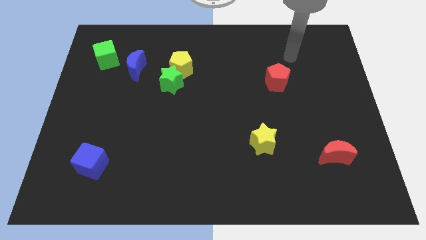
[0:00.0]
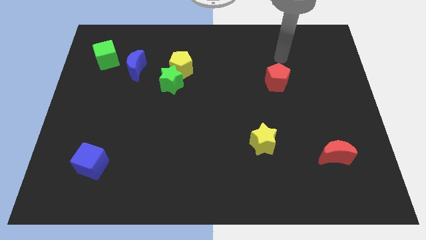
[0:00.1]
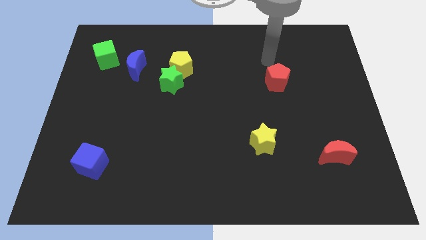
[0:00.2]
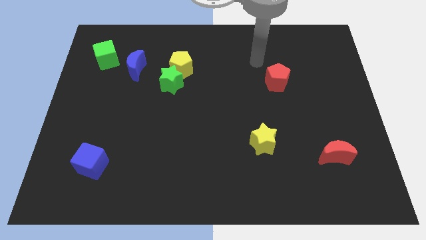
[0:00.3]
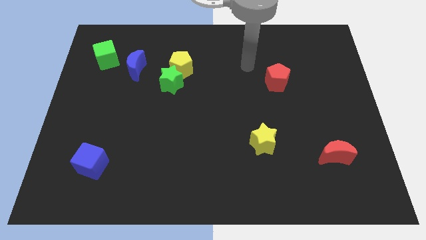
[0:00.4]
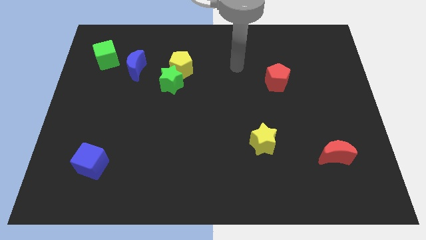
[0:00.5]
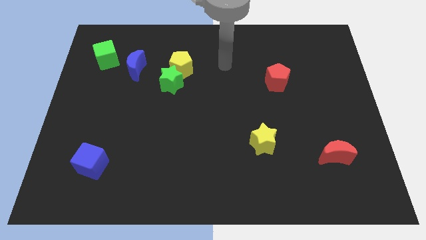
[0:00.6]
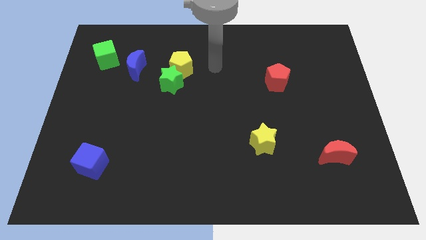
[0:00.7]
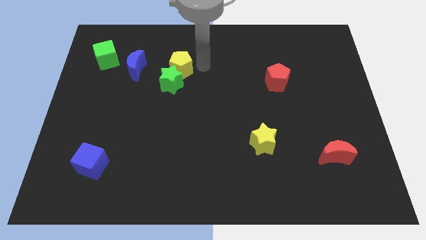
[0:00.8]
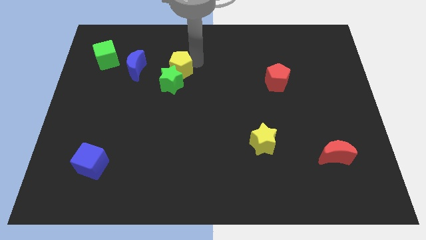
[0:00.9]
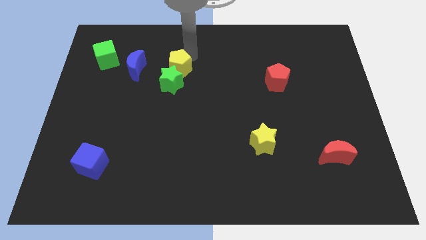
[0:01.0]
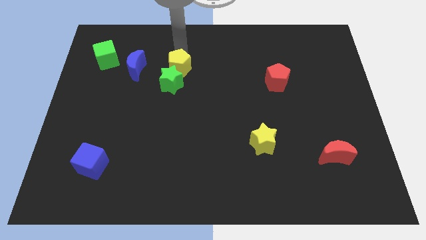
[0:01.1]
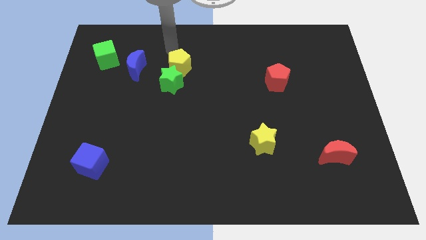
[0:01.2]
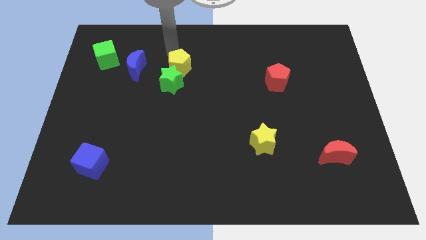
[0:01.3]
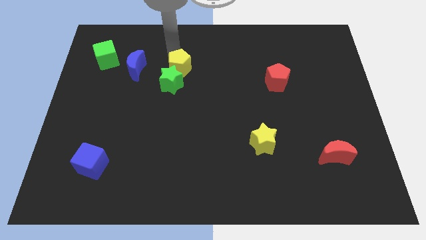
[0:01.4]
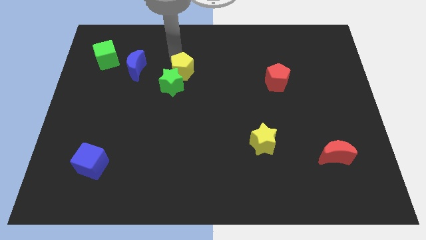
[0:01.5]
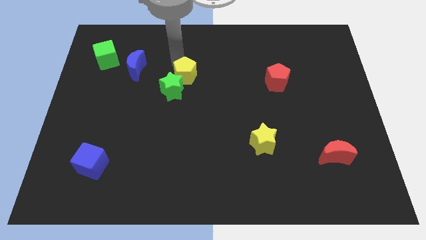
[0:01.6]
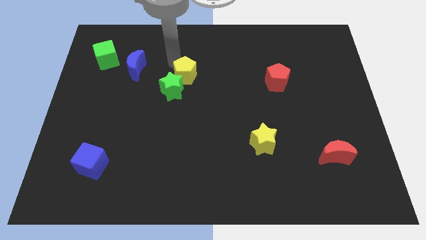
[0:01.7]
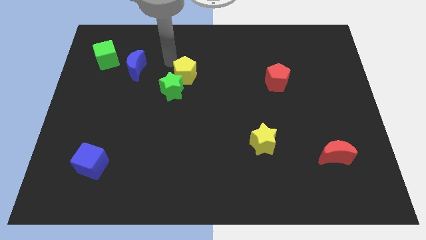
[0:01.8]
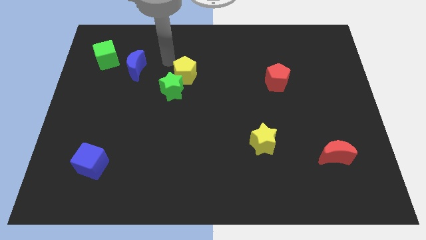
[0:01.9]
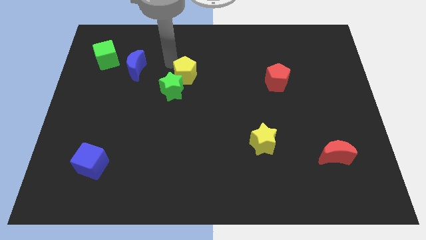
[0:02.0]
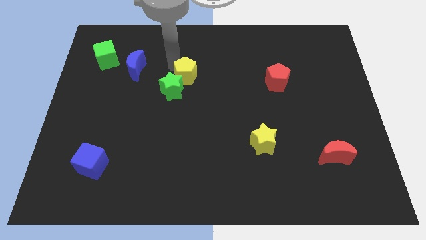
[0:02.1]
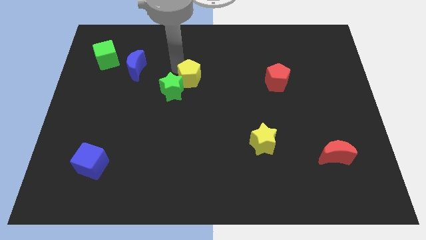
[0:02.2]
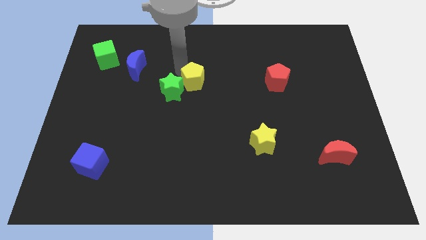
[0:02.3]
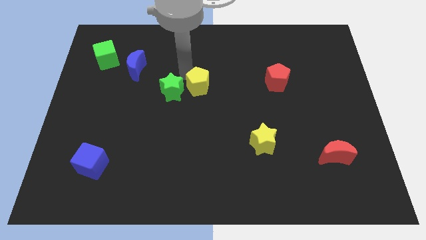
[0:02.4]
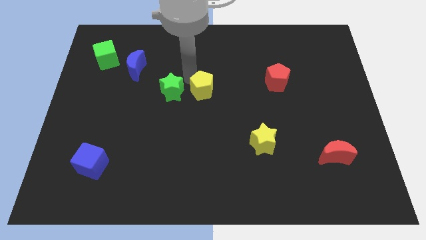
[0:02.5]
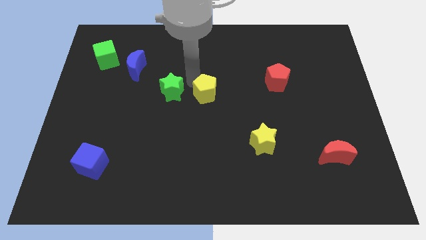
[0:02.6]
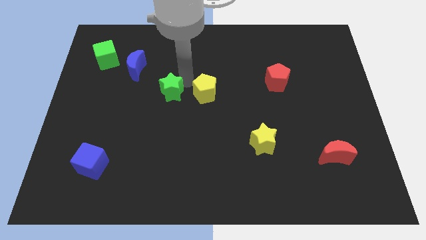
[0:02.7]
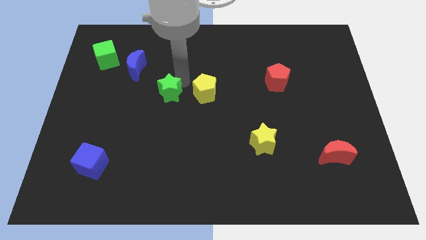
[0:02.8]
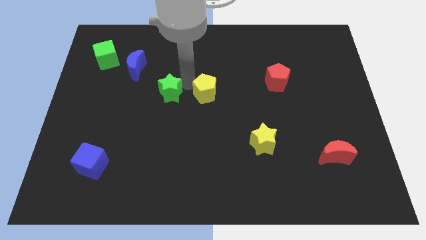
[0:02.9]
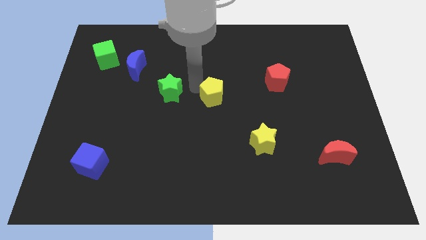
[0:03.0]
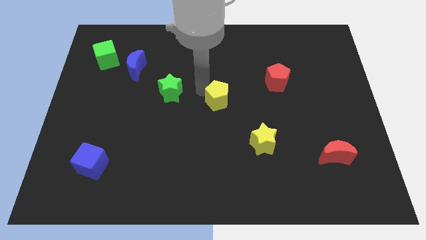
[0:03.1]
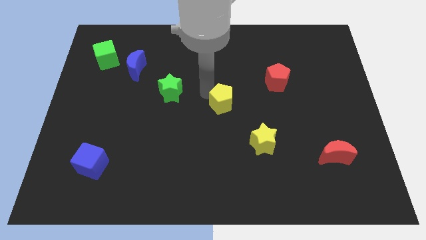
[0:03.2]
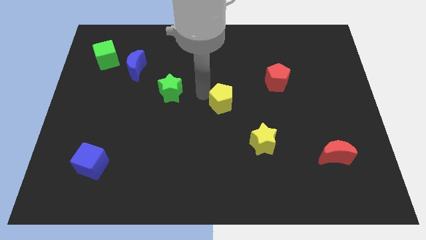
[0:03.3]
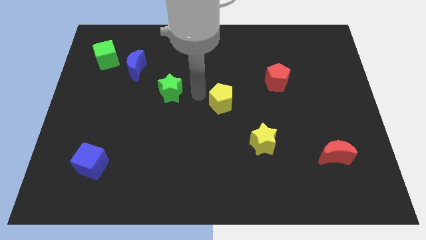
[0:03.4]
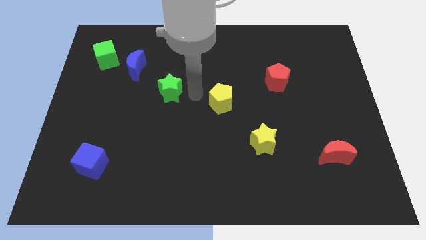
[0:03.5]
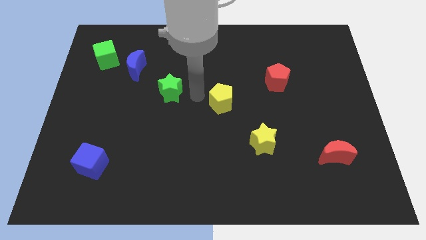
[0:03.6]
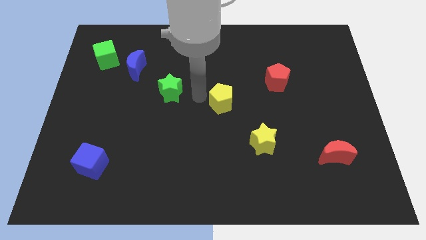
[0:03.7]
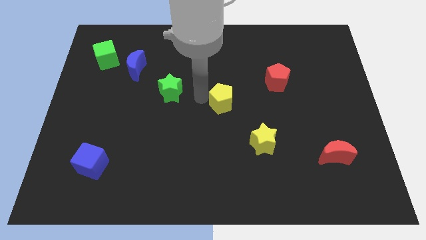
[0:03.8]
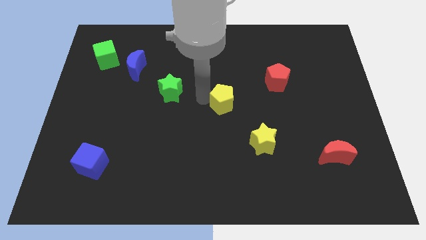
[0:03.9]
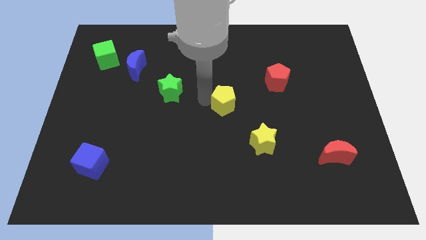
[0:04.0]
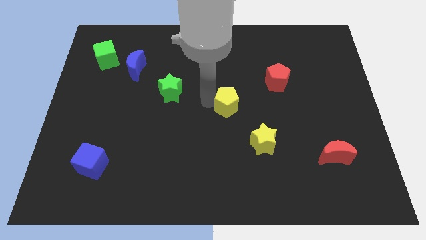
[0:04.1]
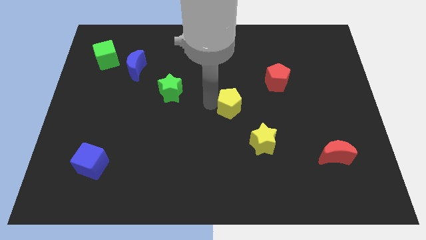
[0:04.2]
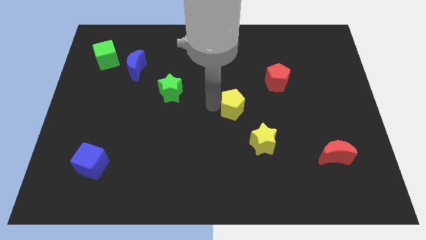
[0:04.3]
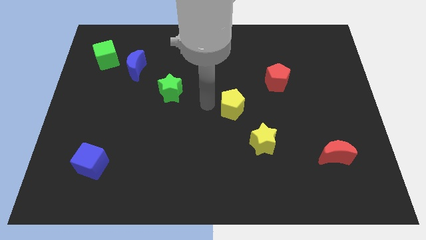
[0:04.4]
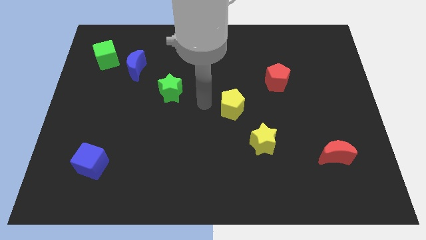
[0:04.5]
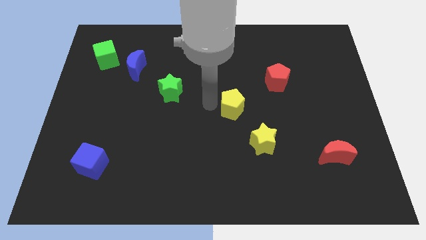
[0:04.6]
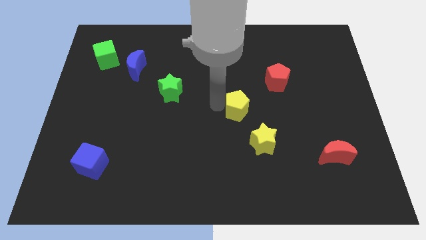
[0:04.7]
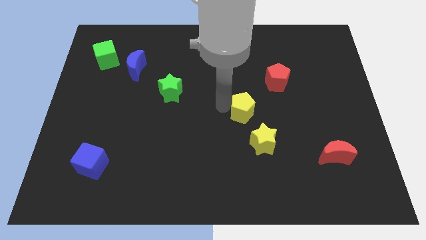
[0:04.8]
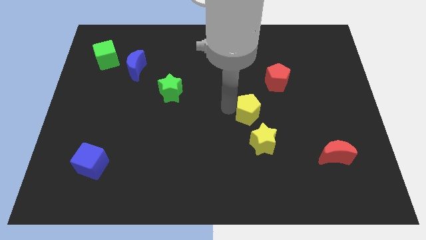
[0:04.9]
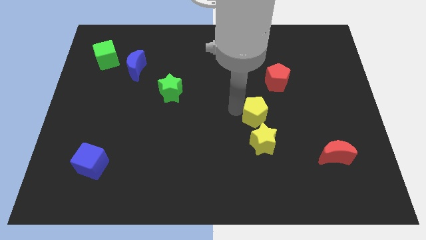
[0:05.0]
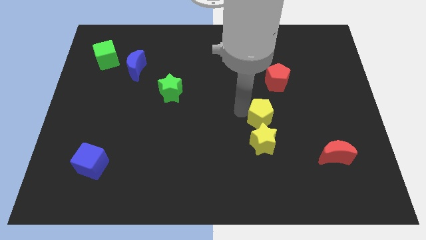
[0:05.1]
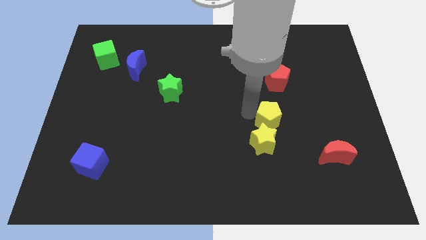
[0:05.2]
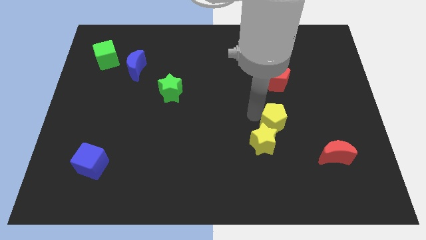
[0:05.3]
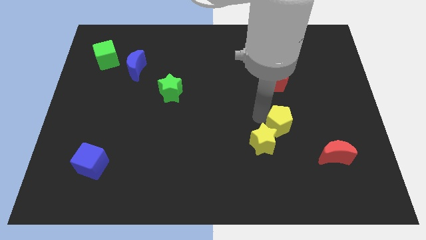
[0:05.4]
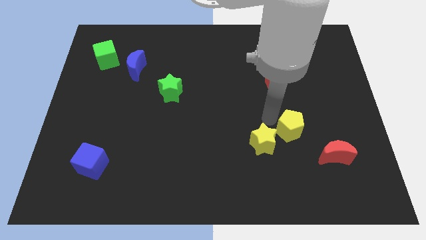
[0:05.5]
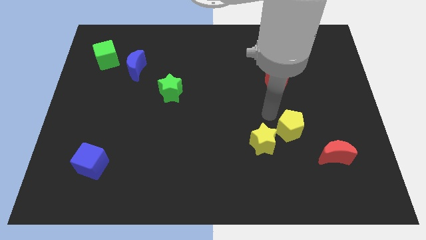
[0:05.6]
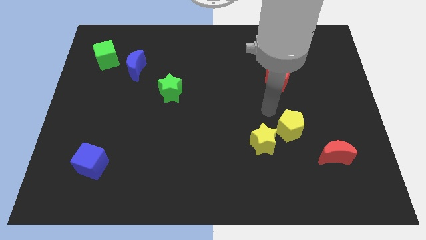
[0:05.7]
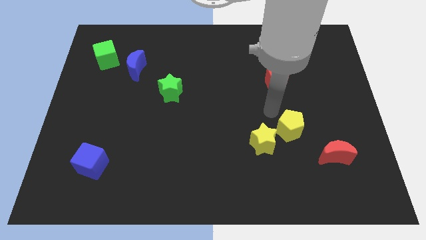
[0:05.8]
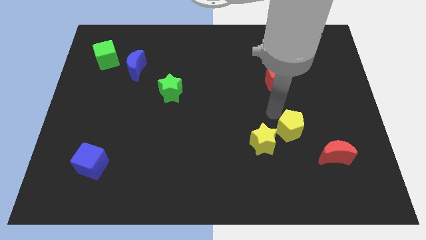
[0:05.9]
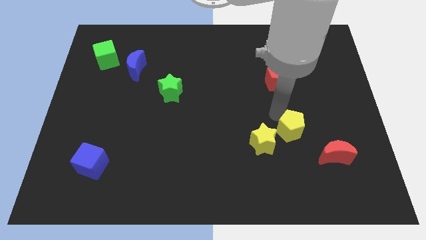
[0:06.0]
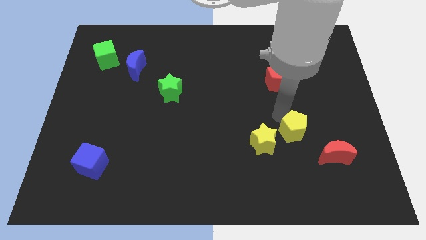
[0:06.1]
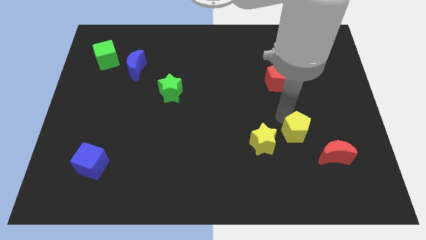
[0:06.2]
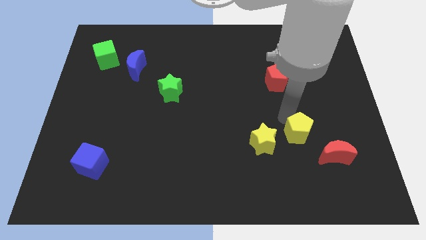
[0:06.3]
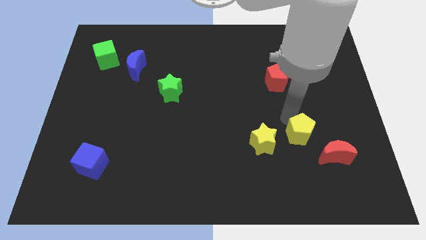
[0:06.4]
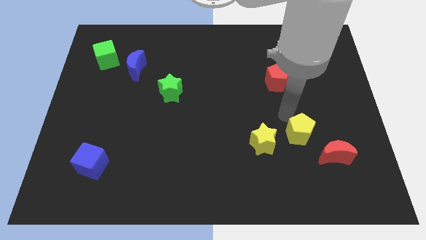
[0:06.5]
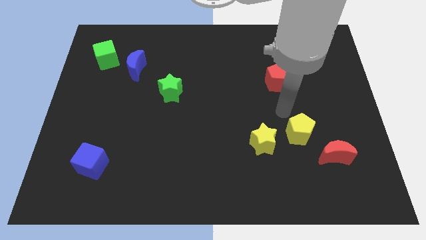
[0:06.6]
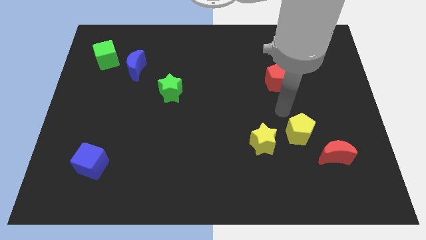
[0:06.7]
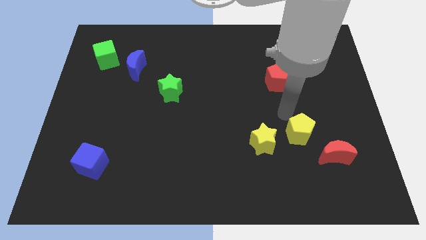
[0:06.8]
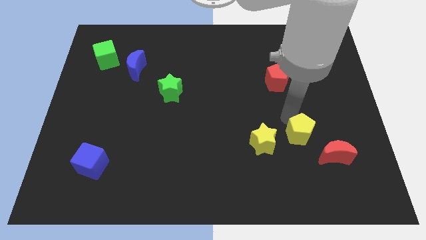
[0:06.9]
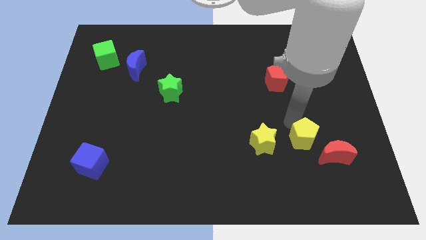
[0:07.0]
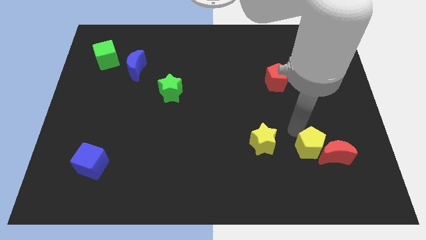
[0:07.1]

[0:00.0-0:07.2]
move the yellow pentagon close to the red moon
